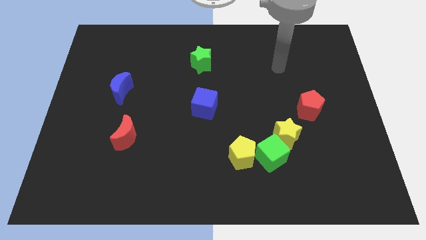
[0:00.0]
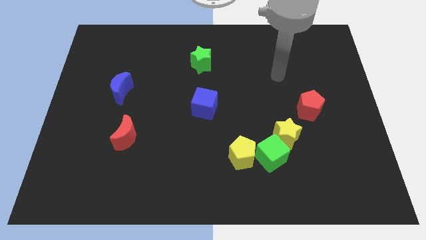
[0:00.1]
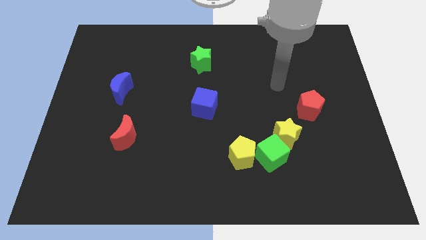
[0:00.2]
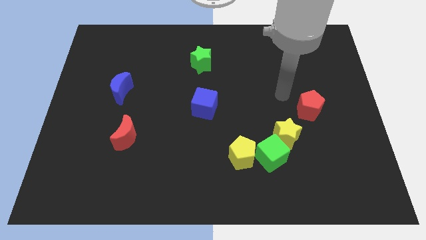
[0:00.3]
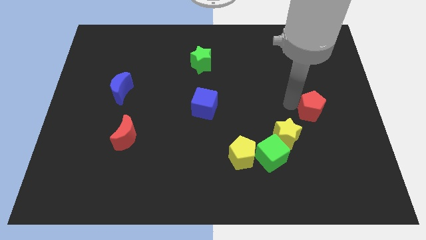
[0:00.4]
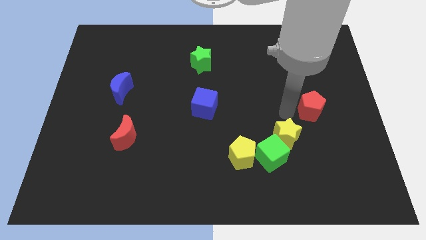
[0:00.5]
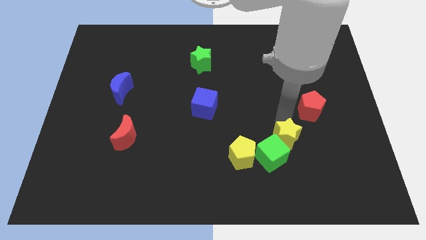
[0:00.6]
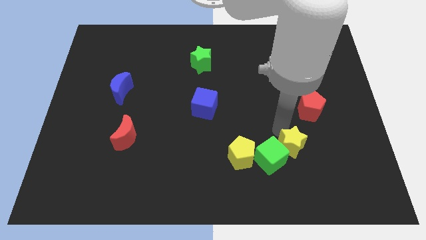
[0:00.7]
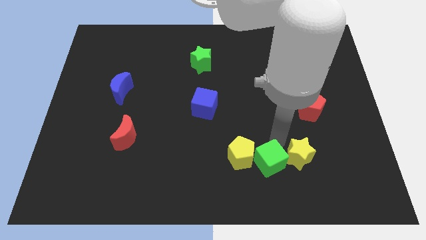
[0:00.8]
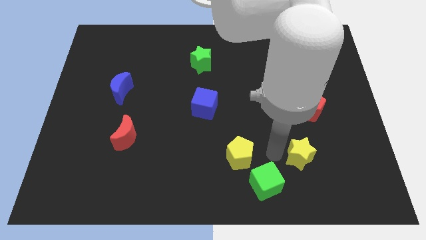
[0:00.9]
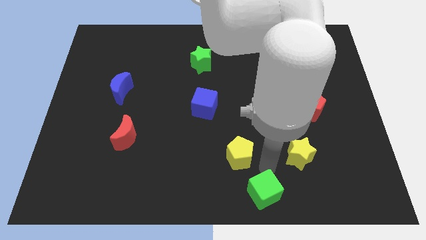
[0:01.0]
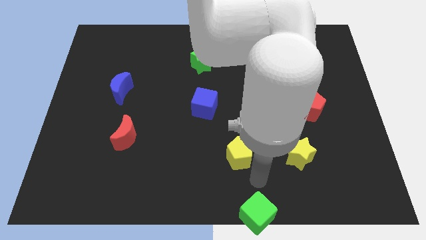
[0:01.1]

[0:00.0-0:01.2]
pull the yellow pentagon apart from the green cube

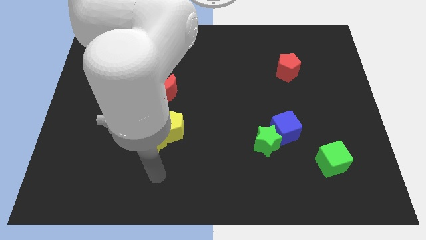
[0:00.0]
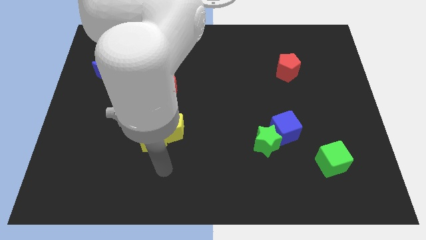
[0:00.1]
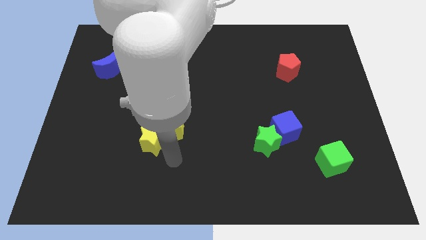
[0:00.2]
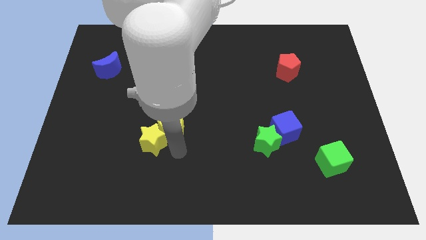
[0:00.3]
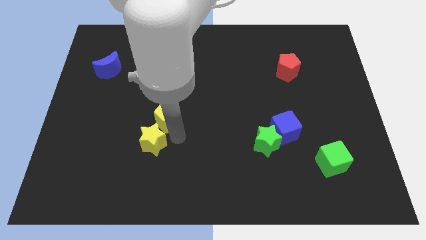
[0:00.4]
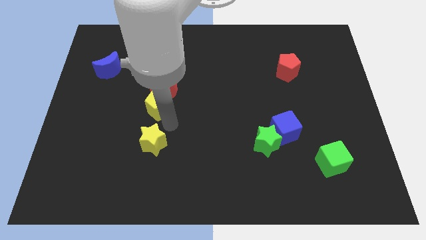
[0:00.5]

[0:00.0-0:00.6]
pull the yellow star apart from the yellow pentagon

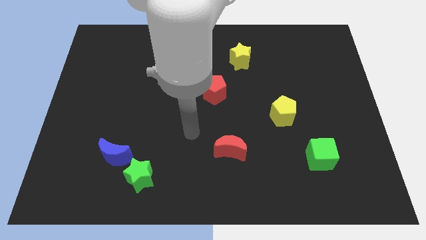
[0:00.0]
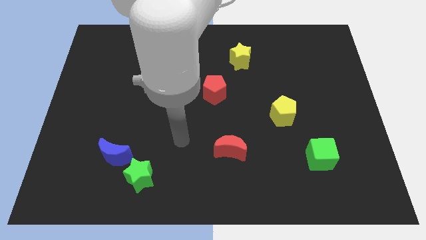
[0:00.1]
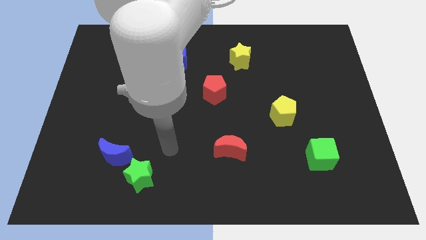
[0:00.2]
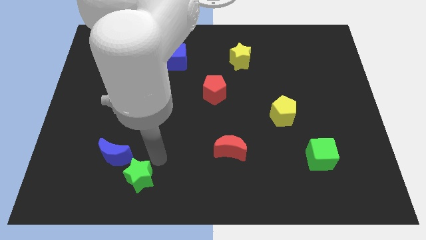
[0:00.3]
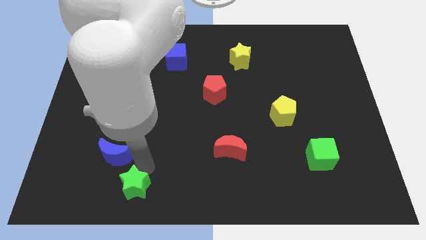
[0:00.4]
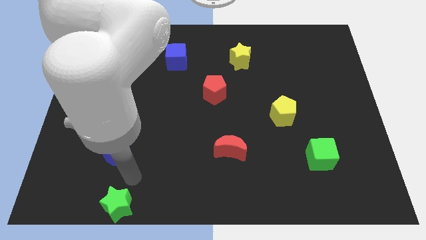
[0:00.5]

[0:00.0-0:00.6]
pull the blue moon apart from the green star

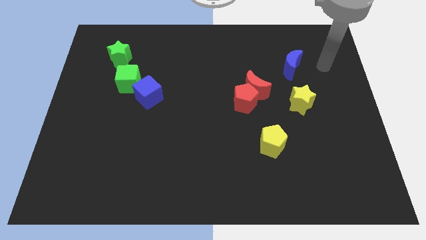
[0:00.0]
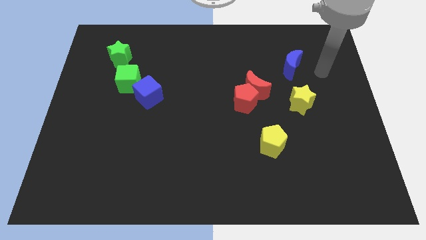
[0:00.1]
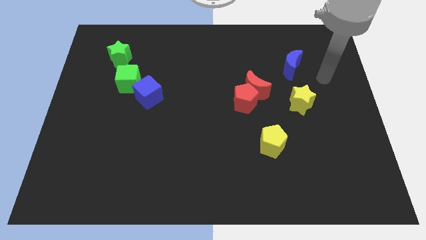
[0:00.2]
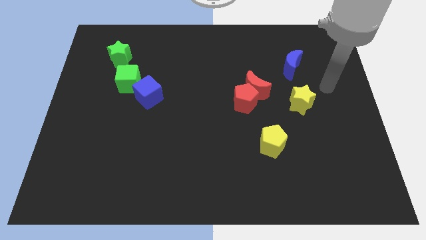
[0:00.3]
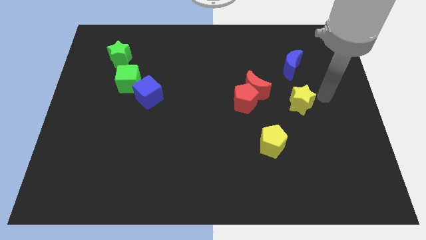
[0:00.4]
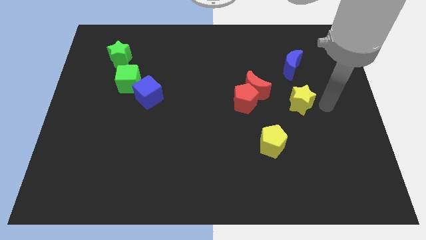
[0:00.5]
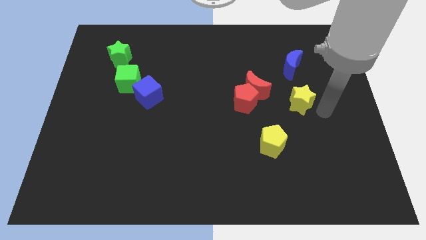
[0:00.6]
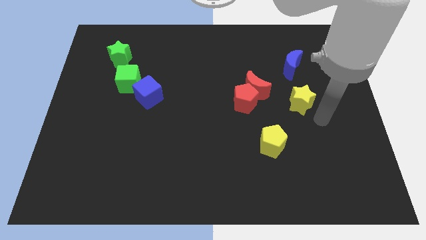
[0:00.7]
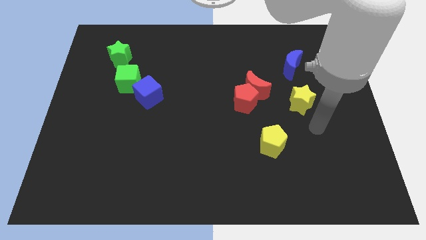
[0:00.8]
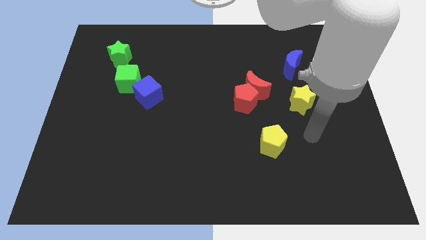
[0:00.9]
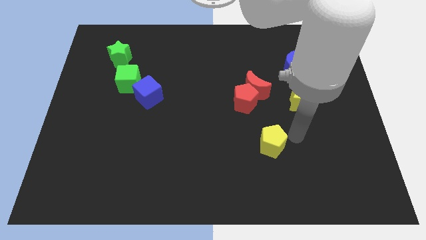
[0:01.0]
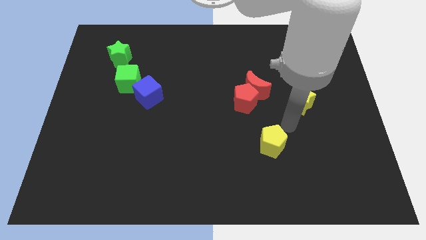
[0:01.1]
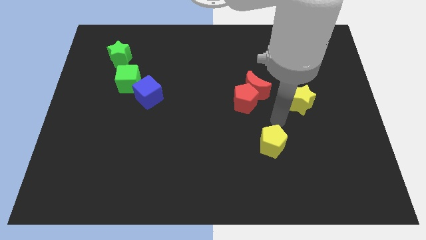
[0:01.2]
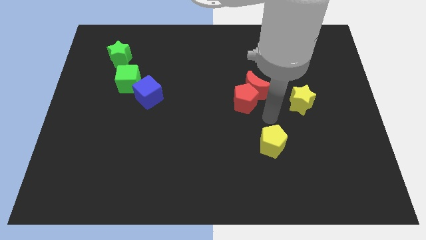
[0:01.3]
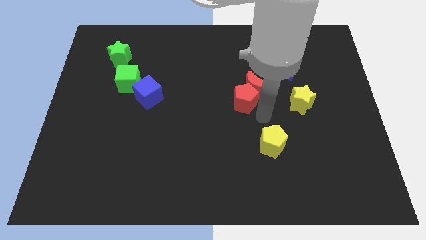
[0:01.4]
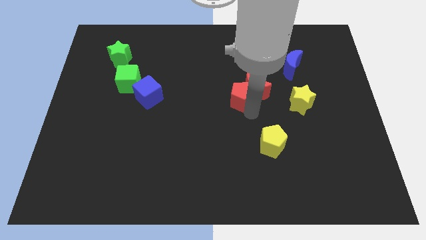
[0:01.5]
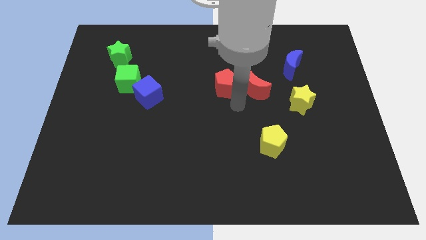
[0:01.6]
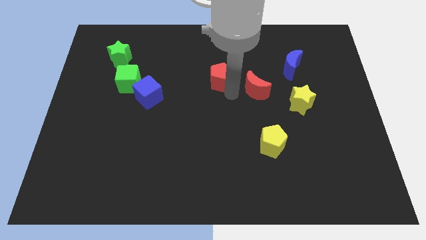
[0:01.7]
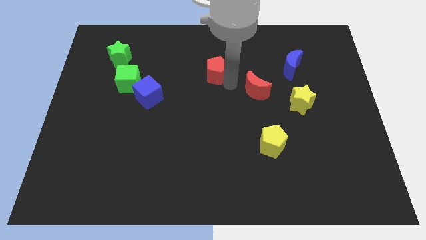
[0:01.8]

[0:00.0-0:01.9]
separate the red moon from the red pentagon

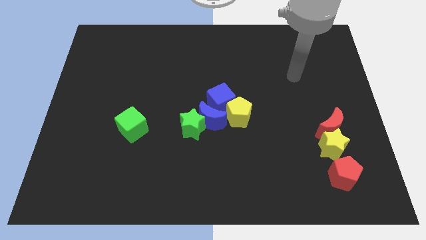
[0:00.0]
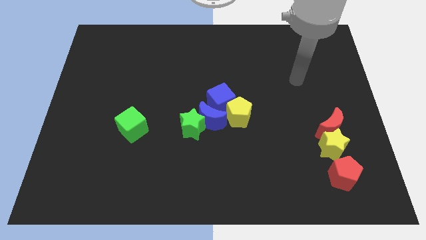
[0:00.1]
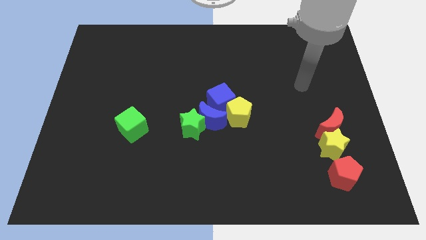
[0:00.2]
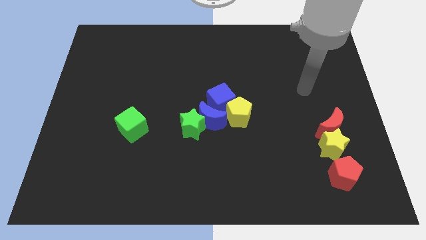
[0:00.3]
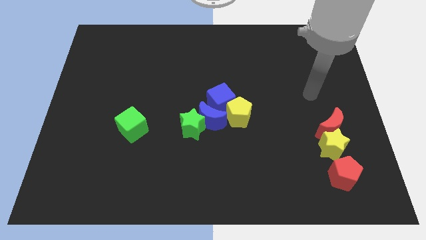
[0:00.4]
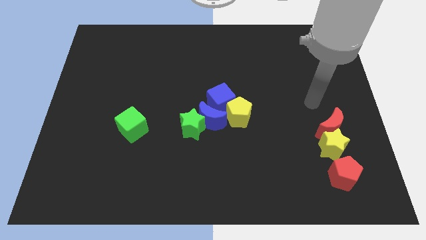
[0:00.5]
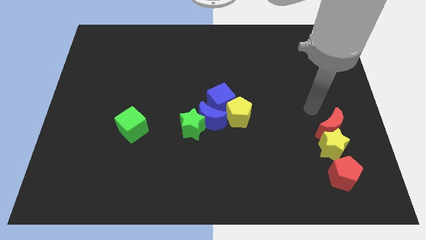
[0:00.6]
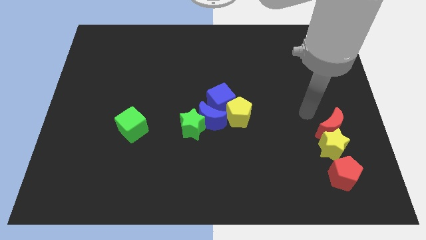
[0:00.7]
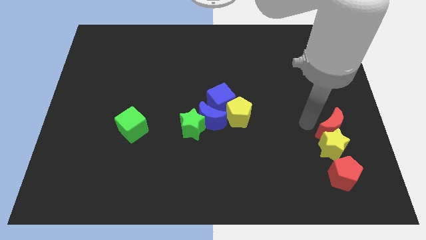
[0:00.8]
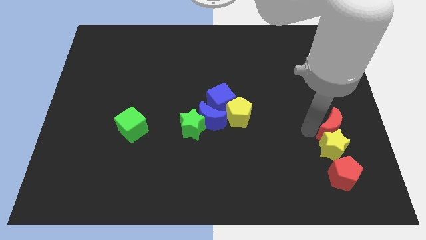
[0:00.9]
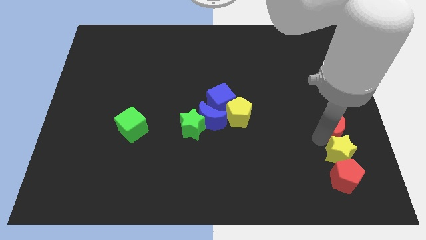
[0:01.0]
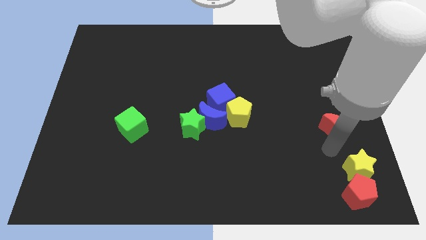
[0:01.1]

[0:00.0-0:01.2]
move the red moon away from the yellow star

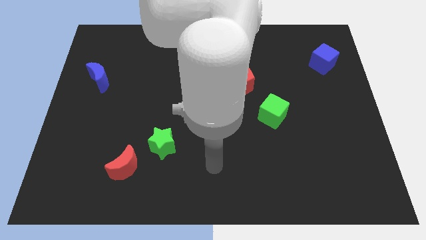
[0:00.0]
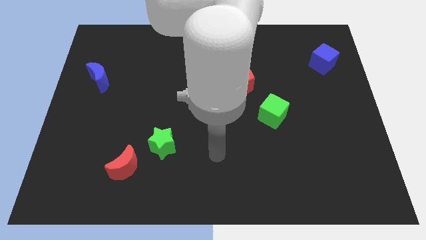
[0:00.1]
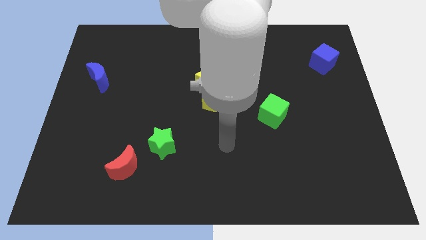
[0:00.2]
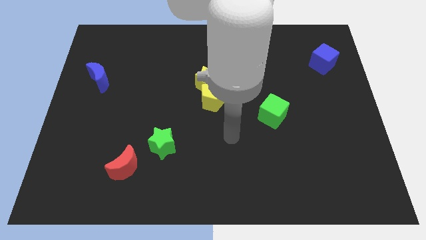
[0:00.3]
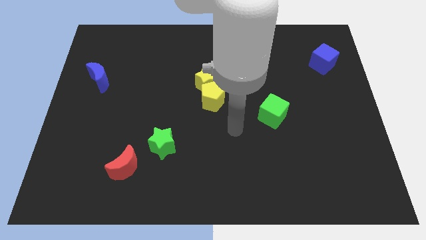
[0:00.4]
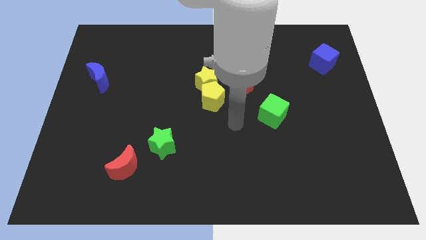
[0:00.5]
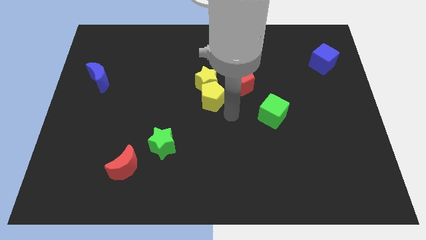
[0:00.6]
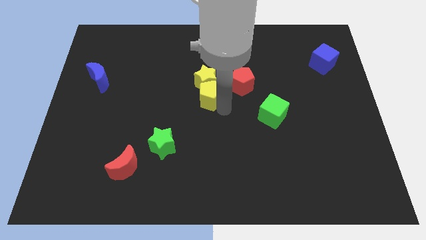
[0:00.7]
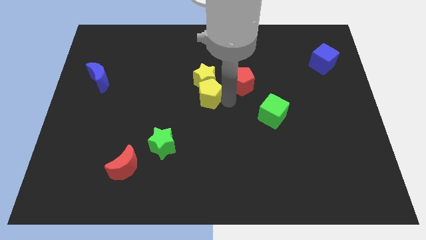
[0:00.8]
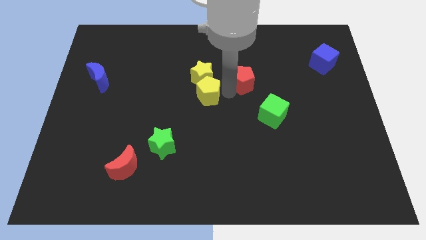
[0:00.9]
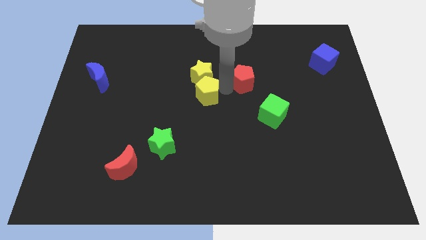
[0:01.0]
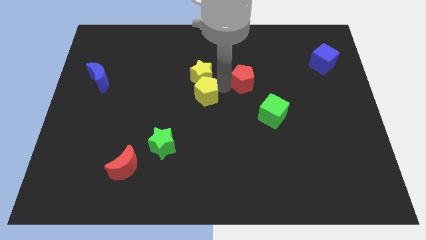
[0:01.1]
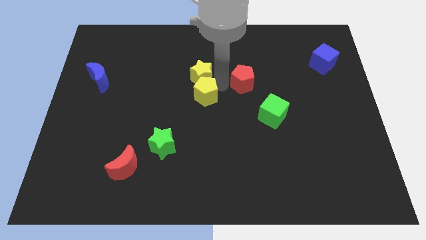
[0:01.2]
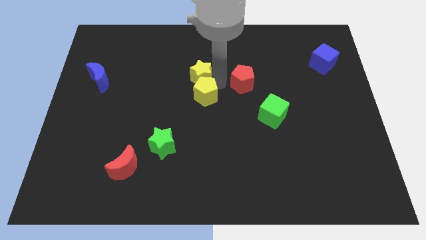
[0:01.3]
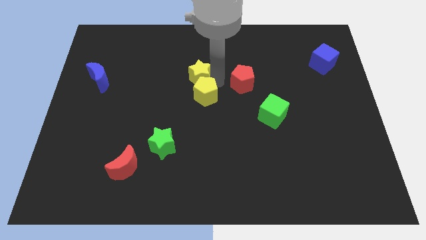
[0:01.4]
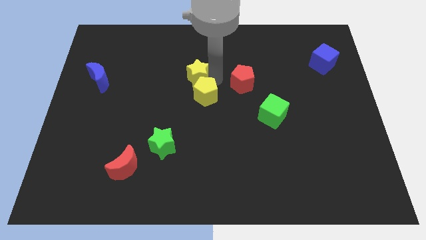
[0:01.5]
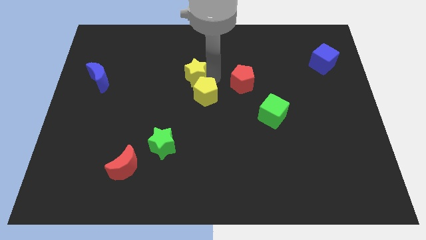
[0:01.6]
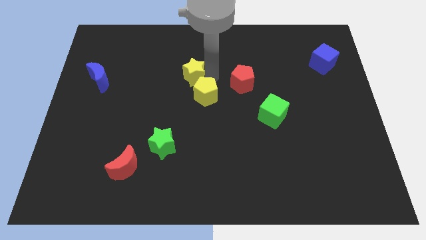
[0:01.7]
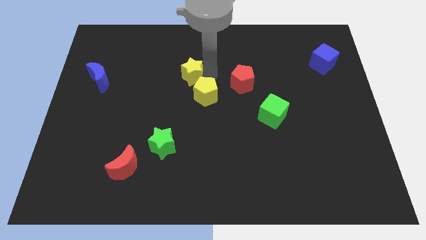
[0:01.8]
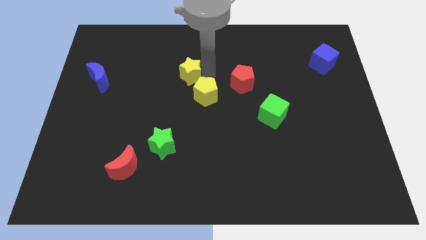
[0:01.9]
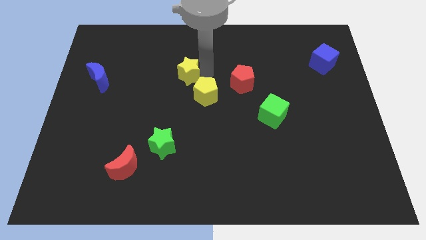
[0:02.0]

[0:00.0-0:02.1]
move the yellow star away from the yellow pentagon and red pentagon

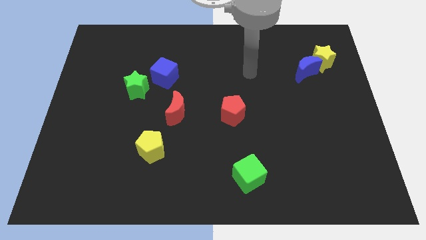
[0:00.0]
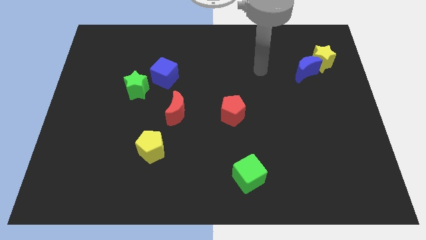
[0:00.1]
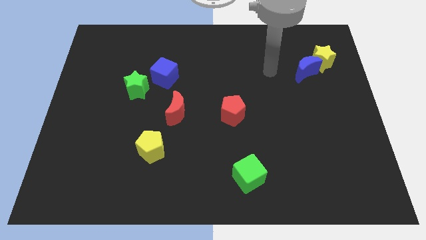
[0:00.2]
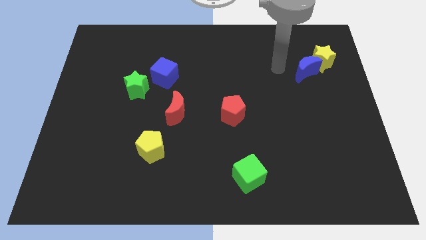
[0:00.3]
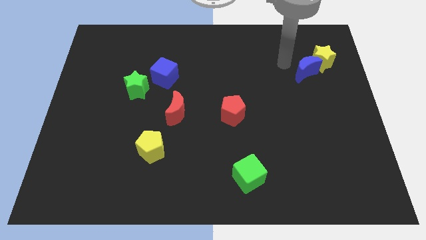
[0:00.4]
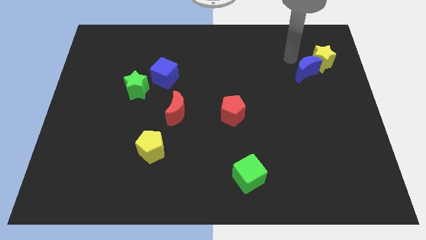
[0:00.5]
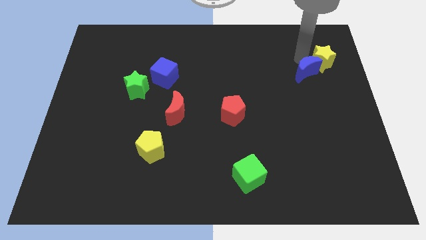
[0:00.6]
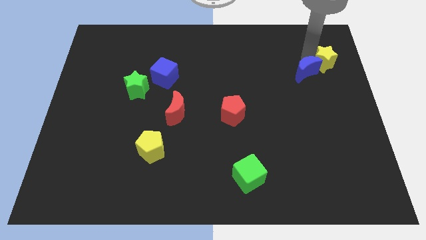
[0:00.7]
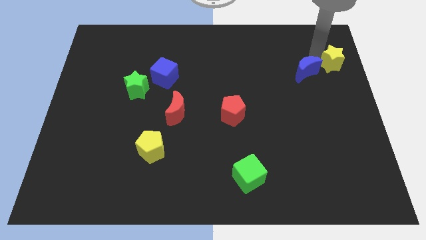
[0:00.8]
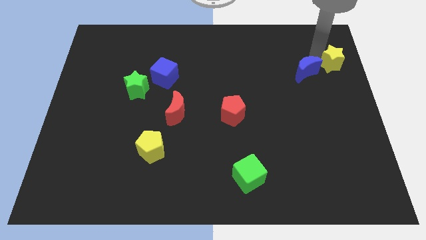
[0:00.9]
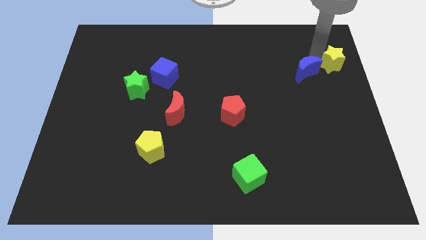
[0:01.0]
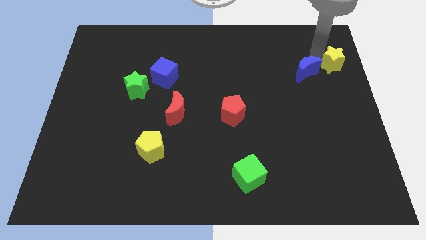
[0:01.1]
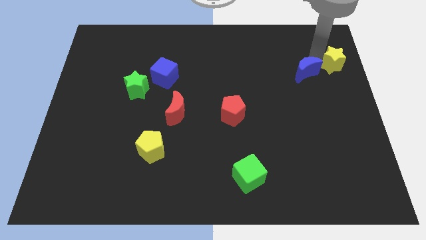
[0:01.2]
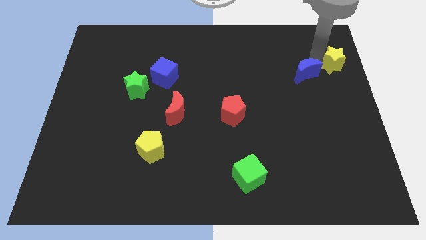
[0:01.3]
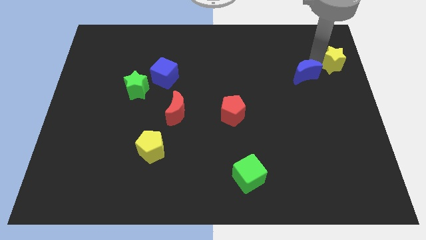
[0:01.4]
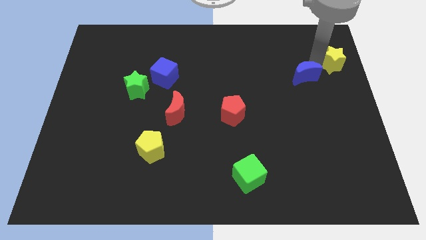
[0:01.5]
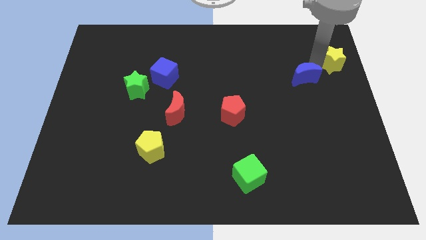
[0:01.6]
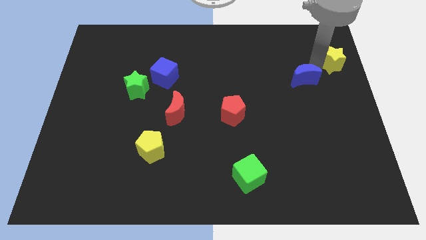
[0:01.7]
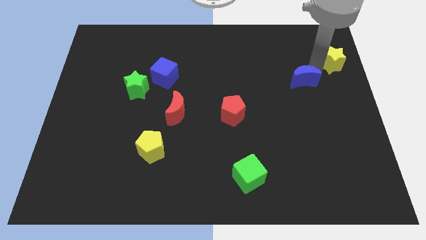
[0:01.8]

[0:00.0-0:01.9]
separate the blue moon from the yellow star
